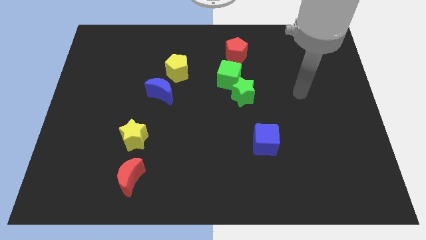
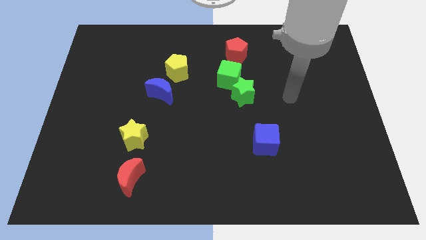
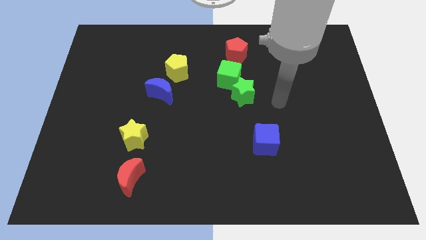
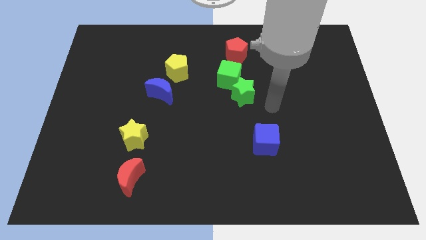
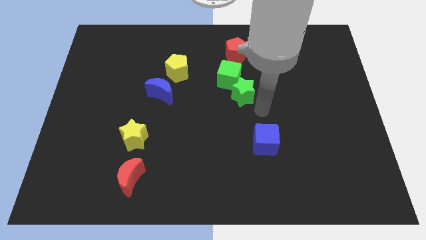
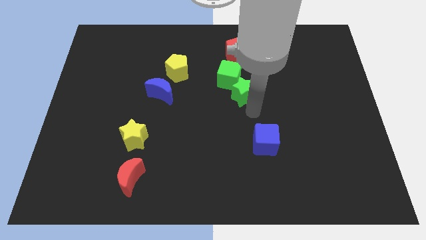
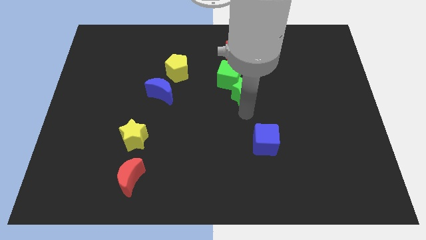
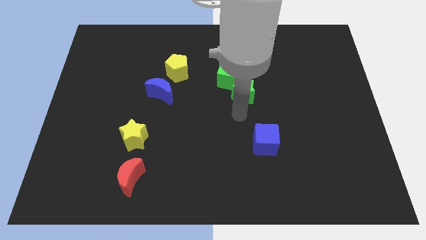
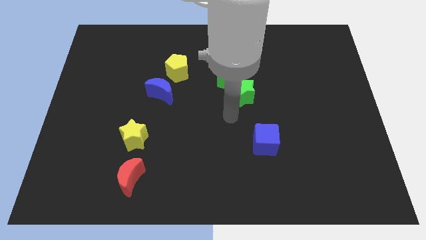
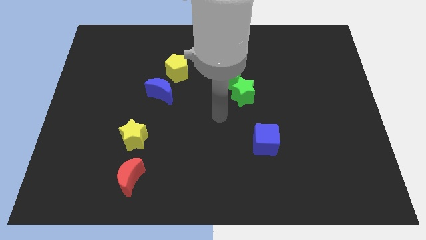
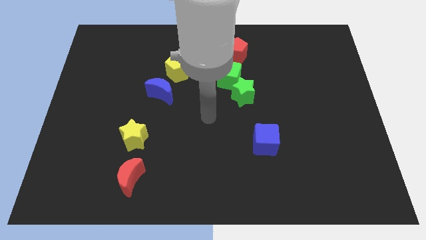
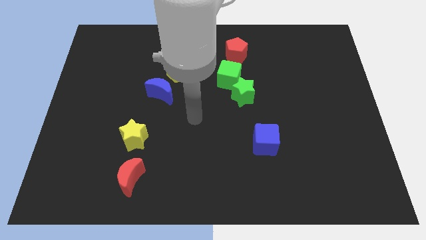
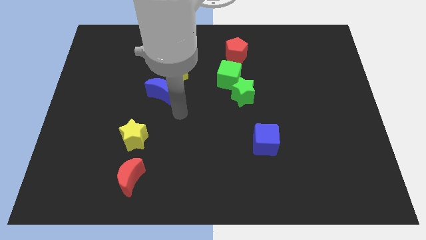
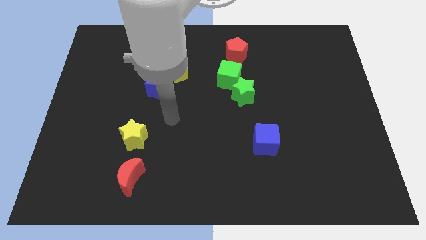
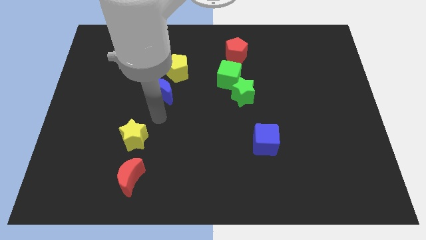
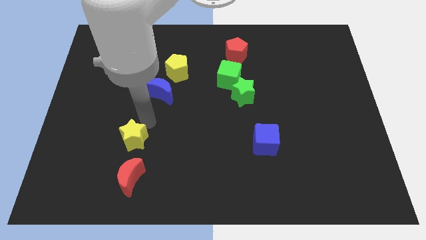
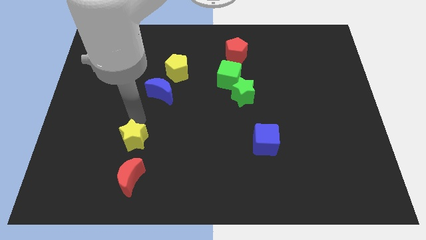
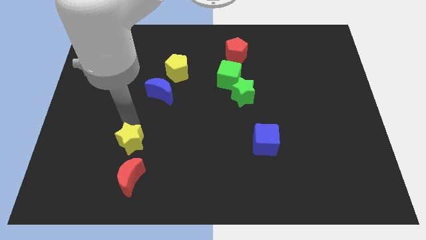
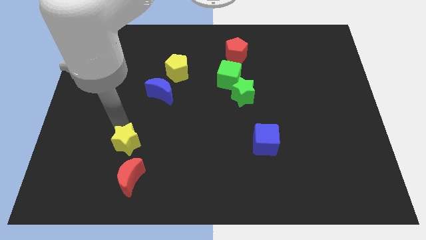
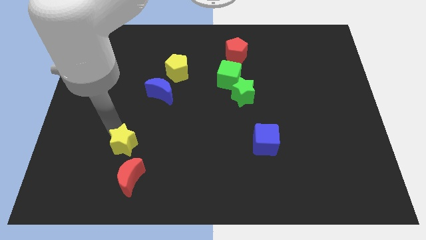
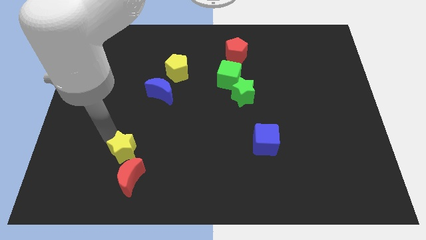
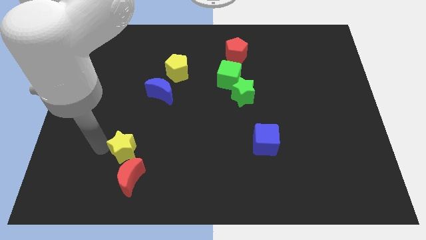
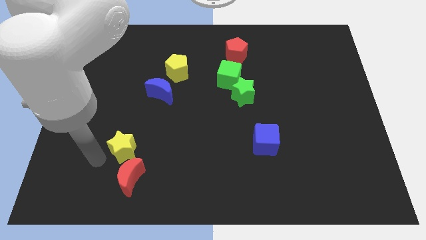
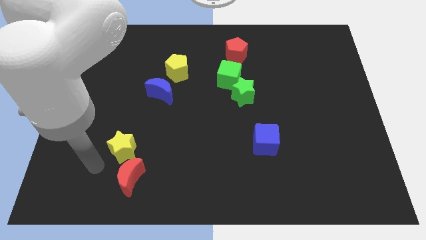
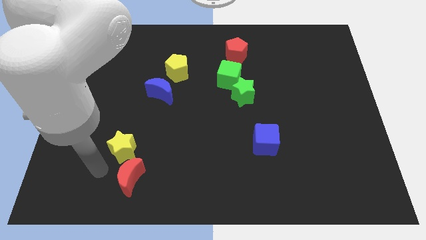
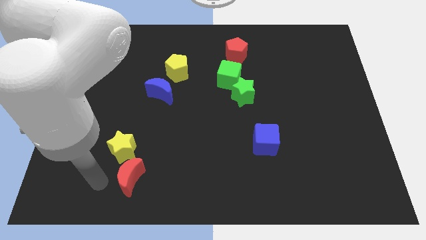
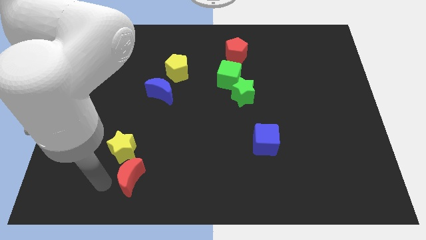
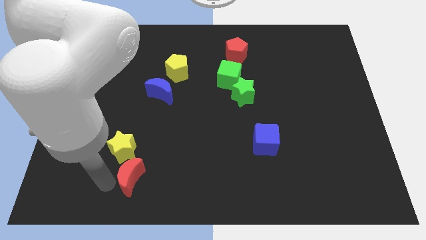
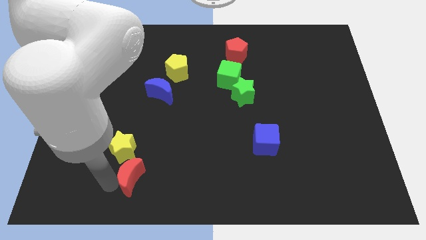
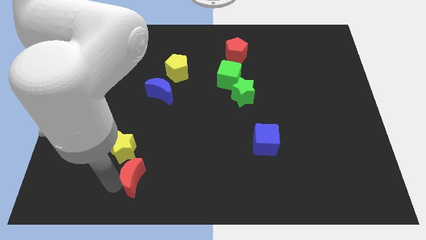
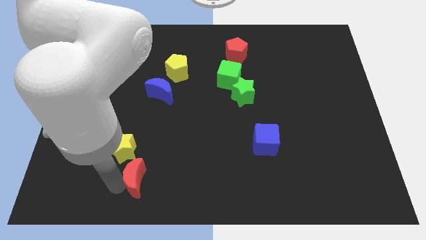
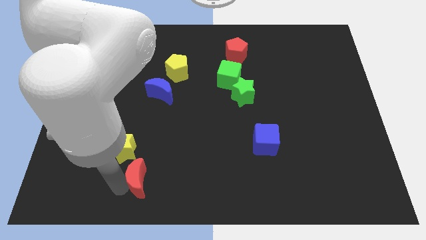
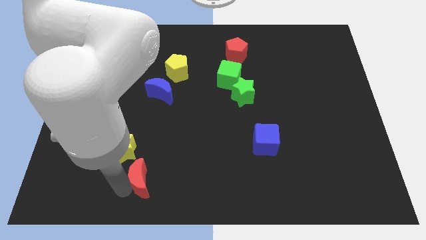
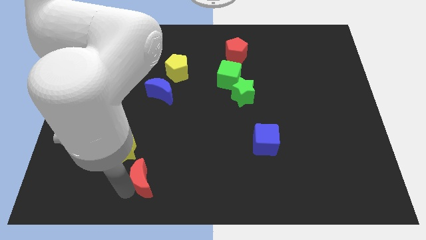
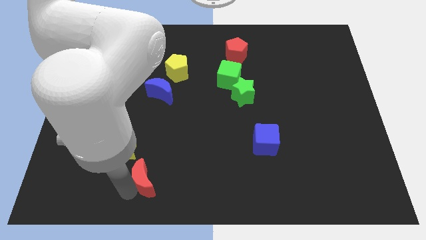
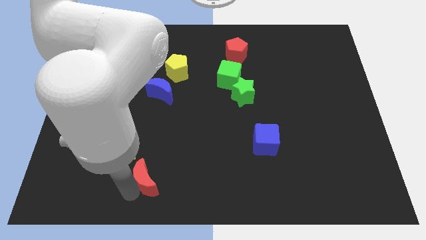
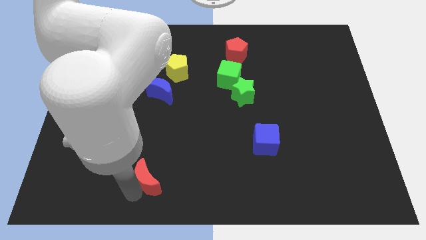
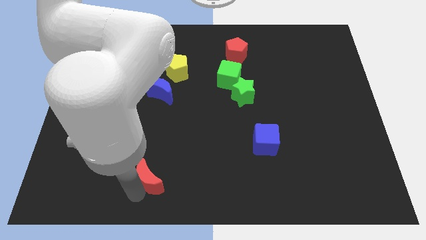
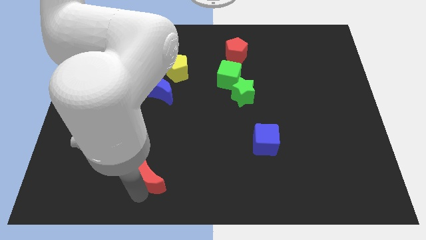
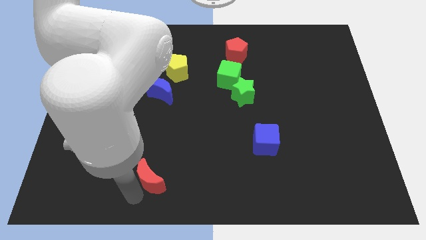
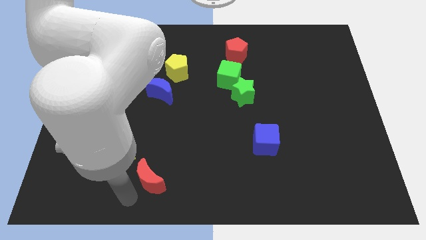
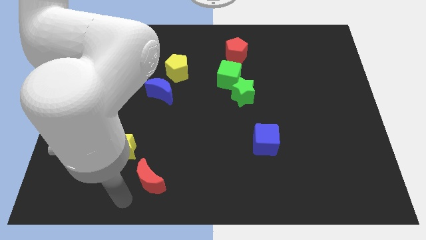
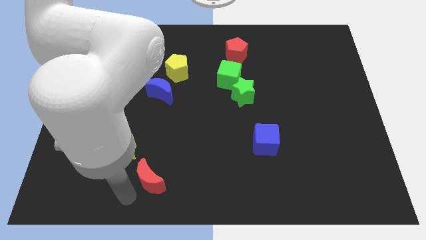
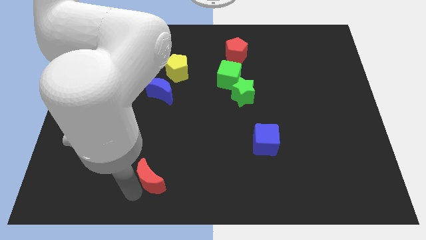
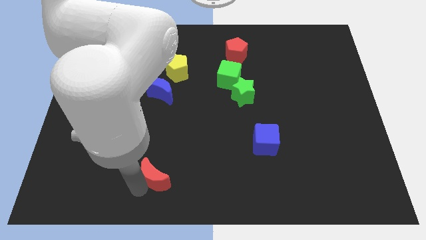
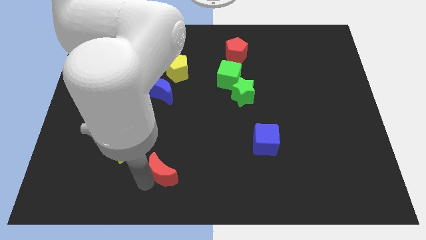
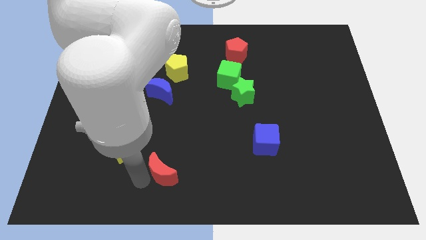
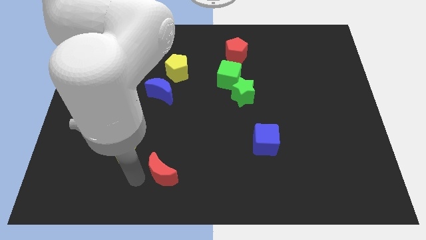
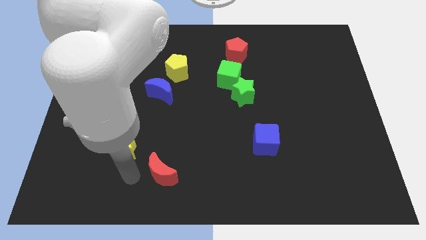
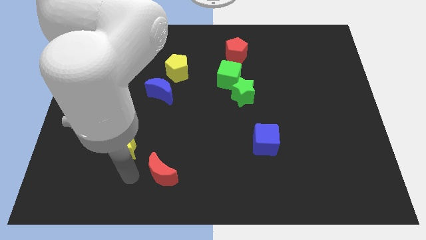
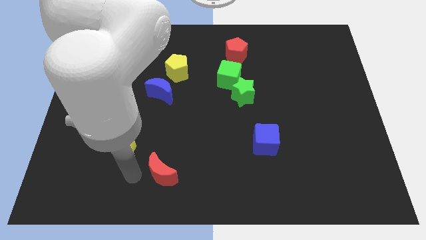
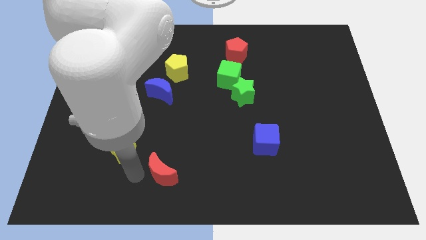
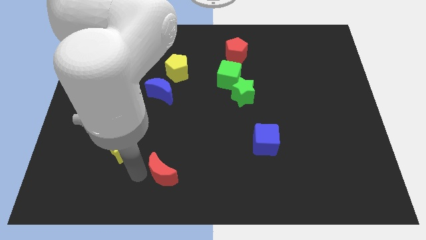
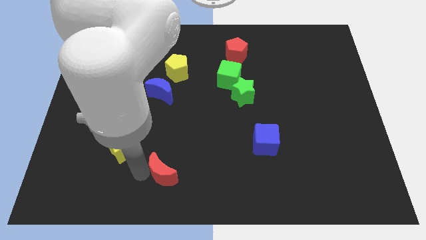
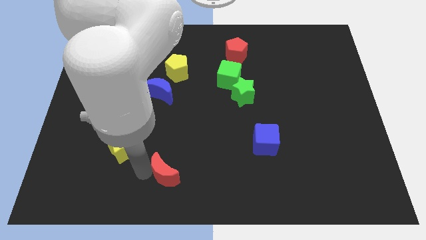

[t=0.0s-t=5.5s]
slightly move the red moon right

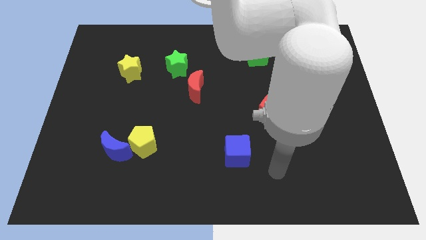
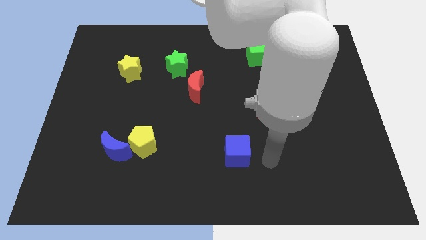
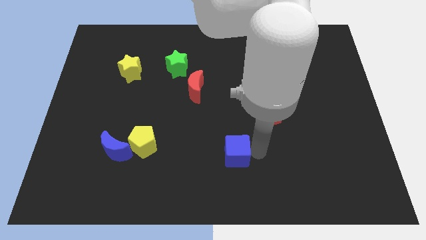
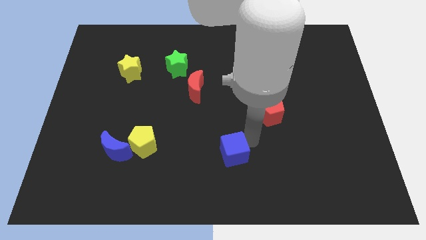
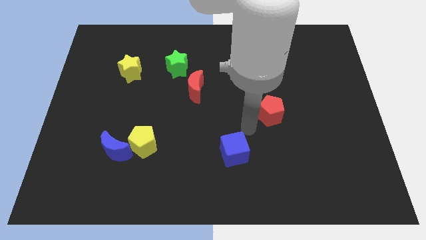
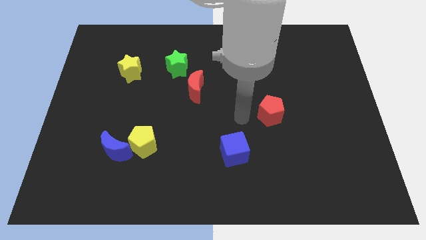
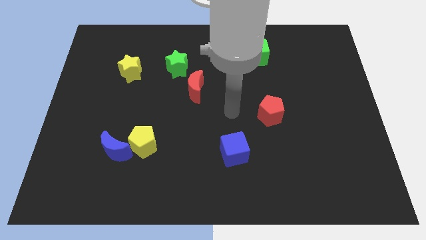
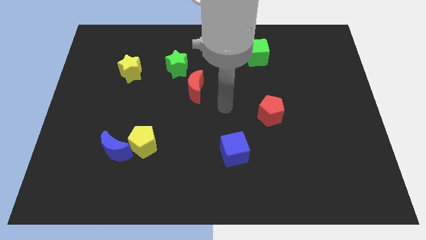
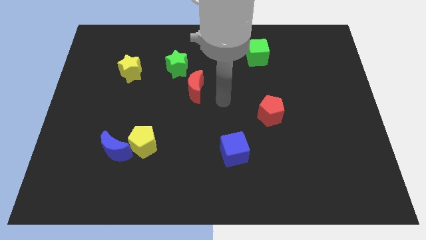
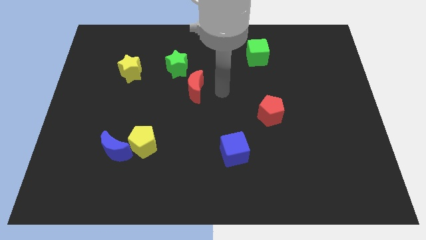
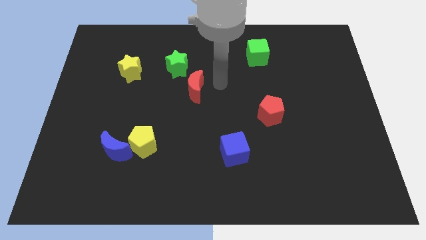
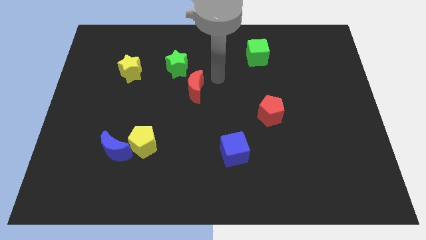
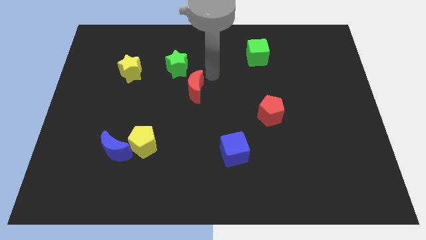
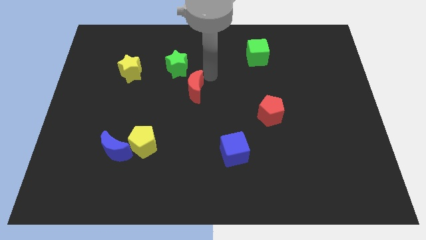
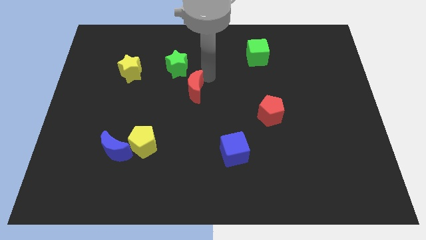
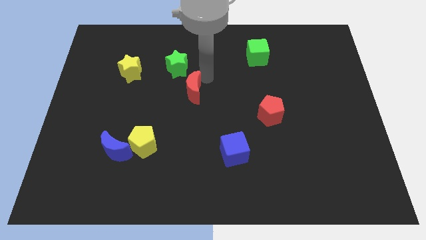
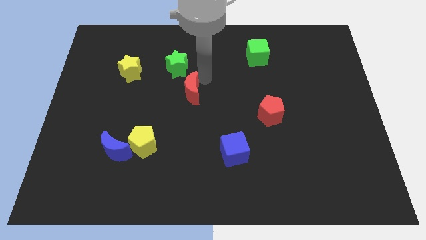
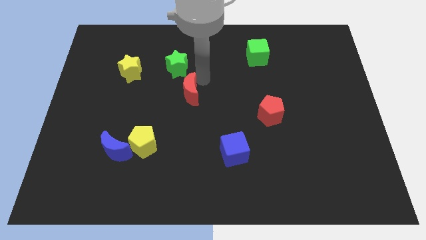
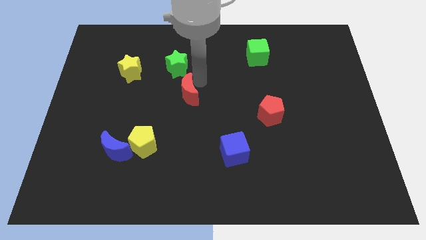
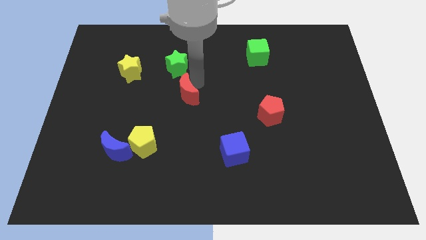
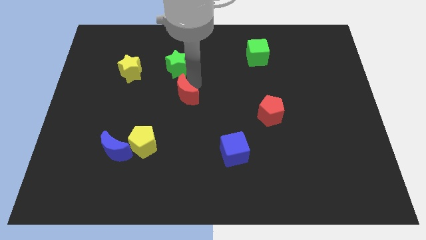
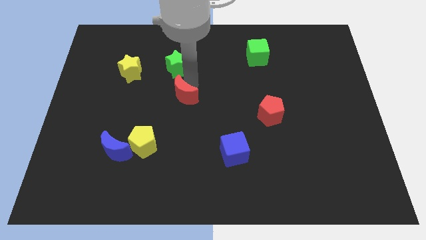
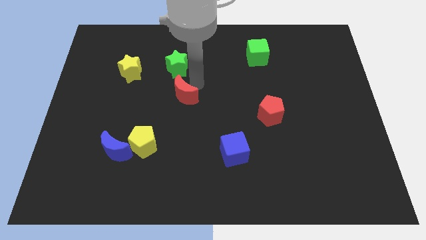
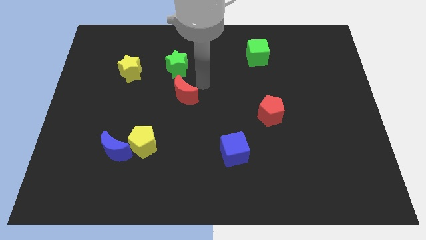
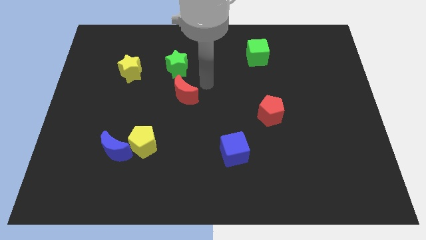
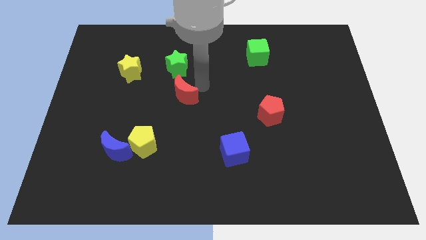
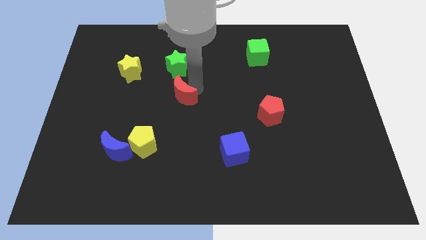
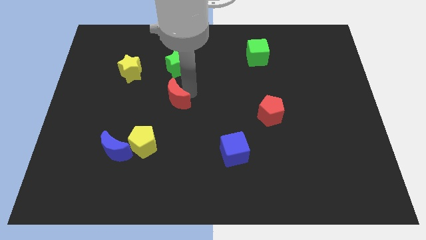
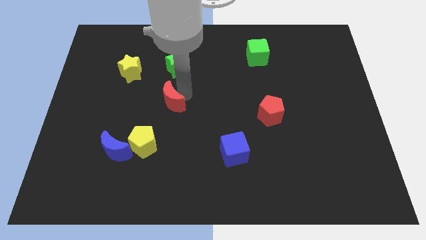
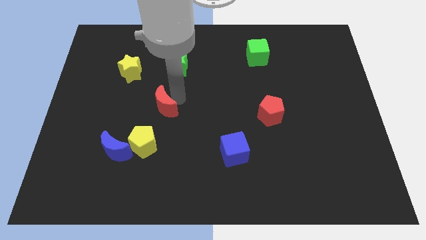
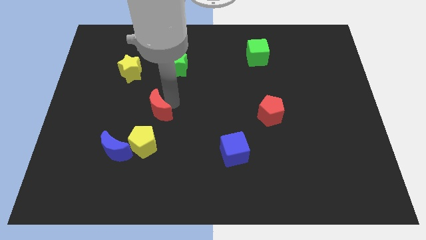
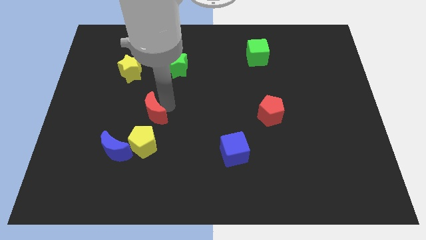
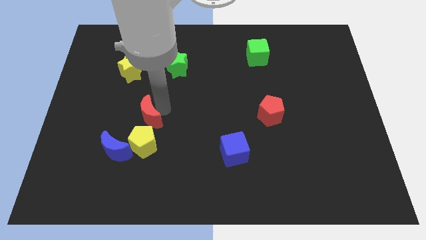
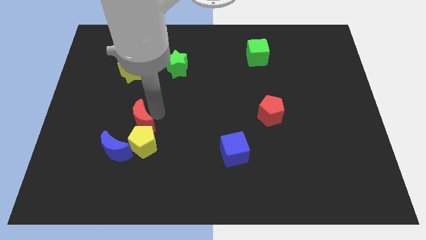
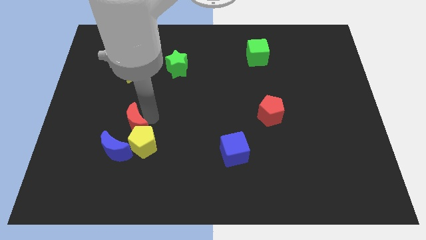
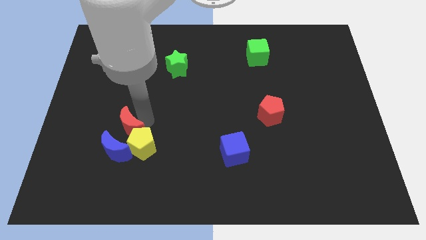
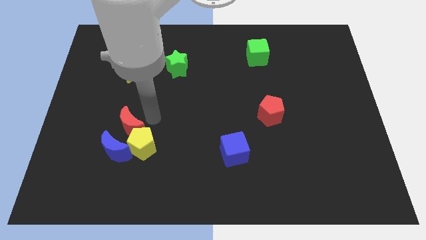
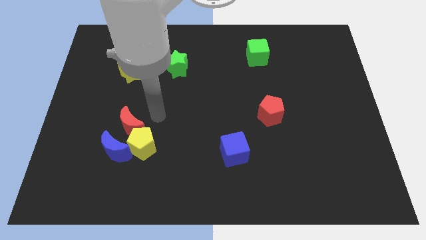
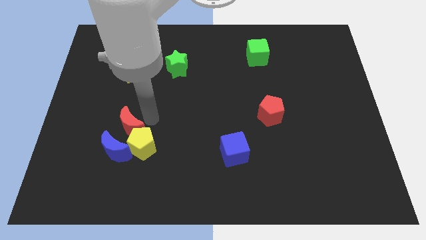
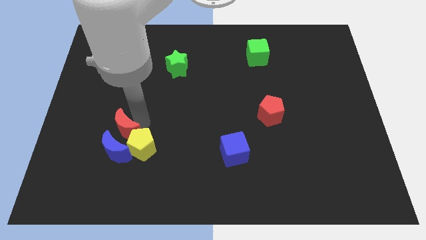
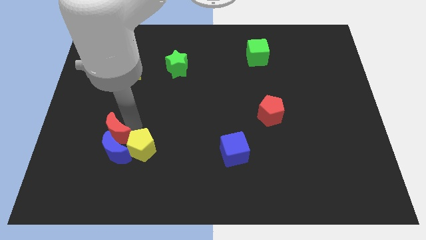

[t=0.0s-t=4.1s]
push the red moon down and to the left diagonally
